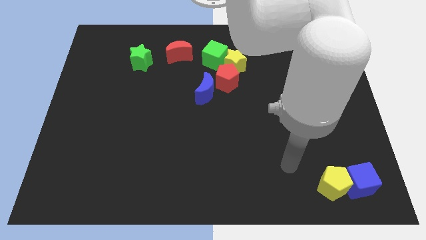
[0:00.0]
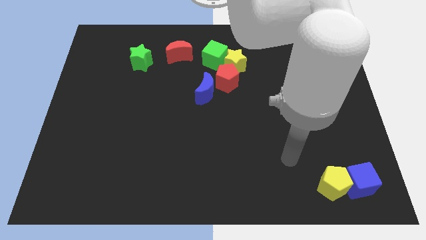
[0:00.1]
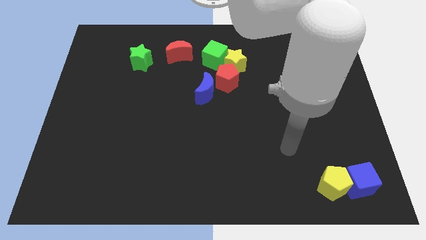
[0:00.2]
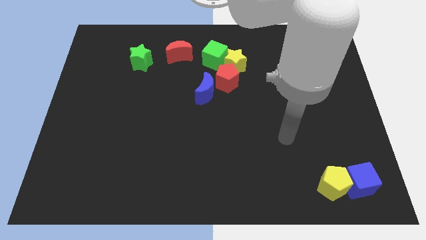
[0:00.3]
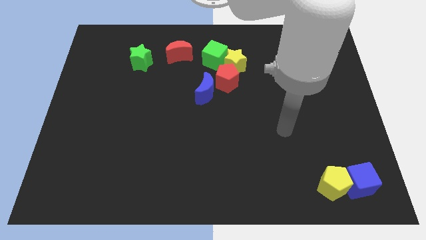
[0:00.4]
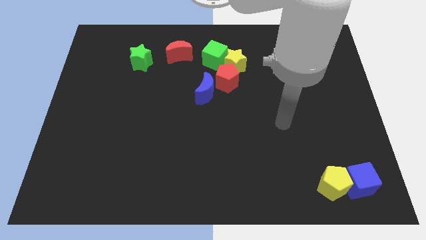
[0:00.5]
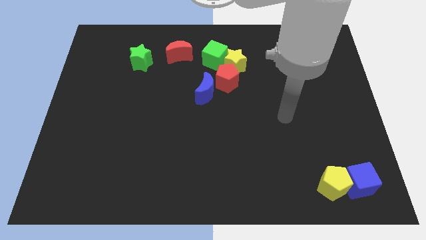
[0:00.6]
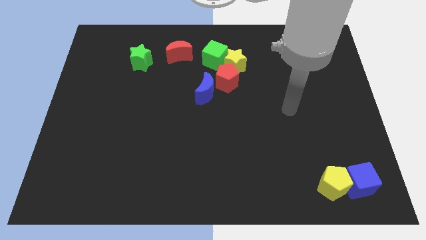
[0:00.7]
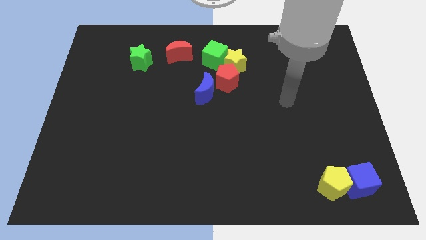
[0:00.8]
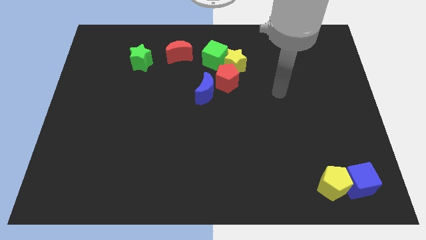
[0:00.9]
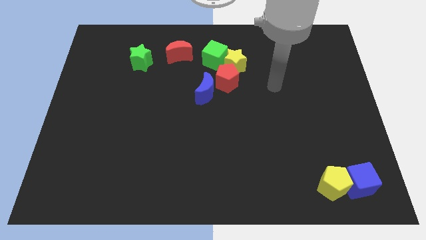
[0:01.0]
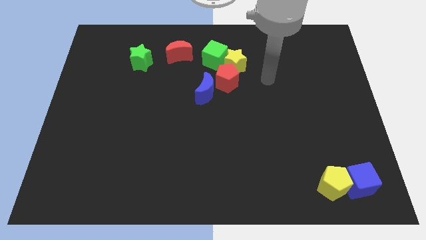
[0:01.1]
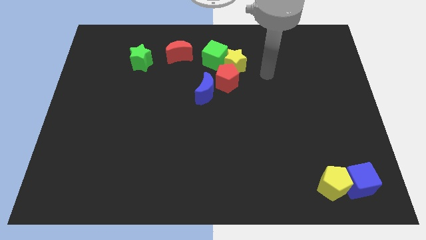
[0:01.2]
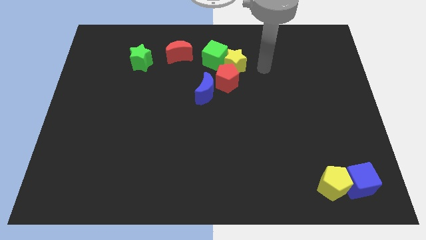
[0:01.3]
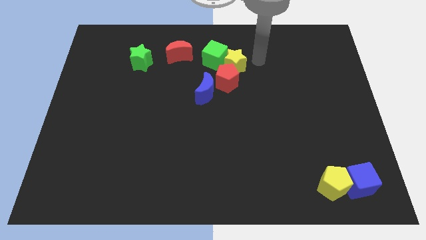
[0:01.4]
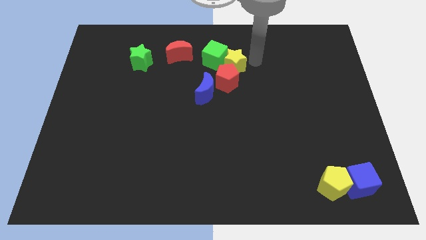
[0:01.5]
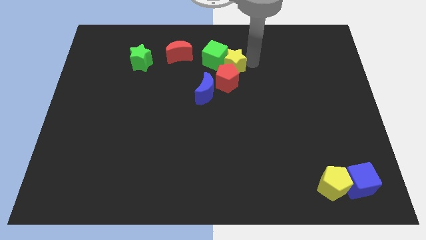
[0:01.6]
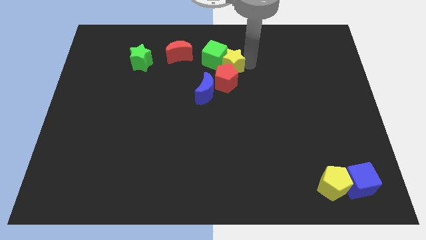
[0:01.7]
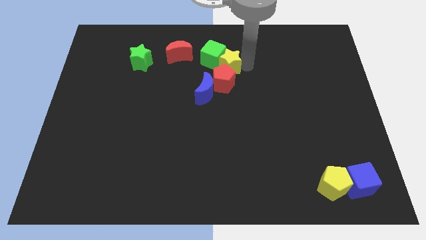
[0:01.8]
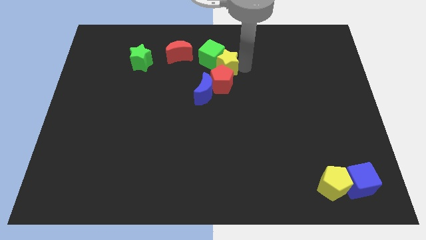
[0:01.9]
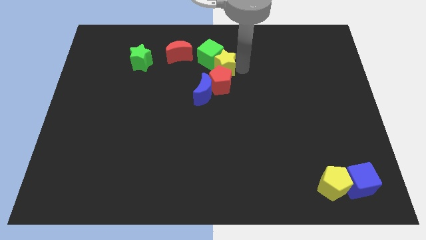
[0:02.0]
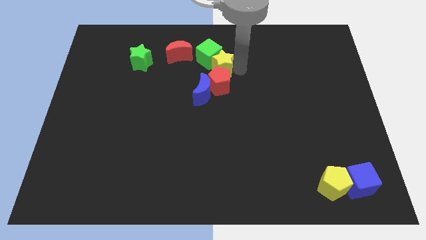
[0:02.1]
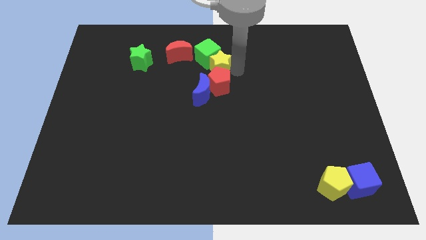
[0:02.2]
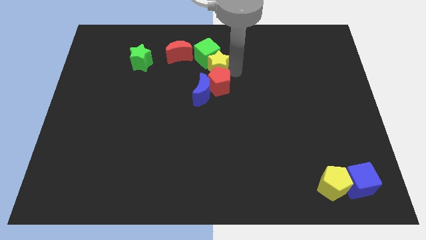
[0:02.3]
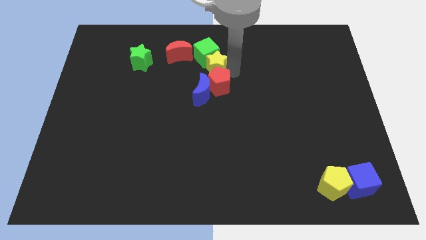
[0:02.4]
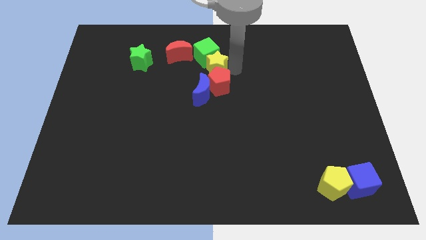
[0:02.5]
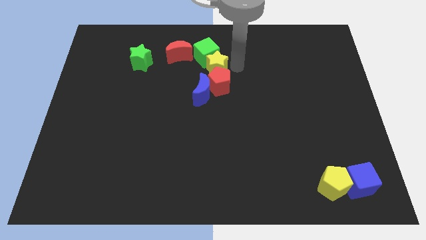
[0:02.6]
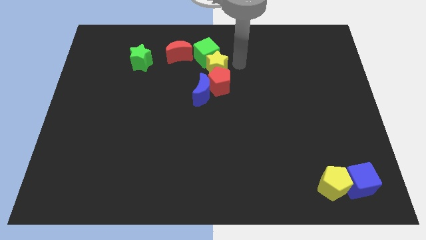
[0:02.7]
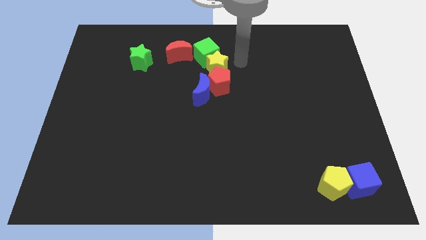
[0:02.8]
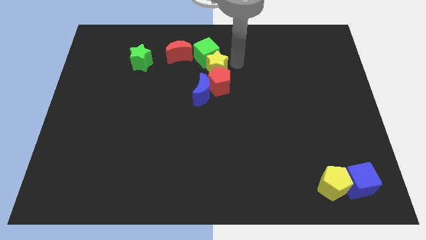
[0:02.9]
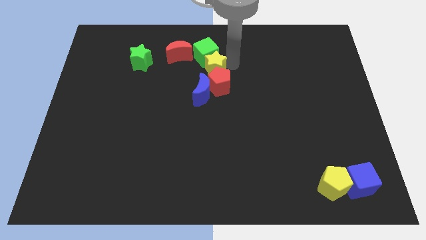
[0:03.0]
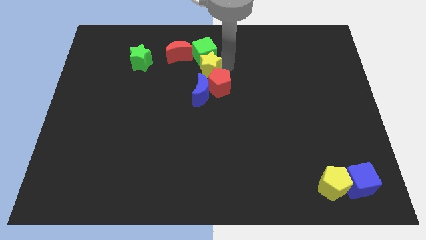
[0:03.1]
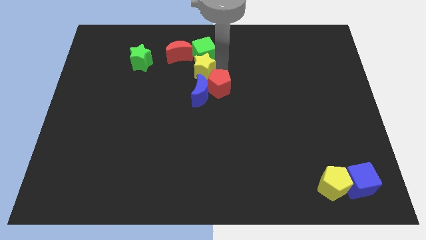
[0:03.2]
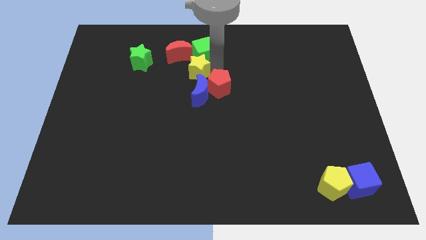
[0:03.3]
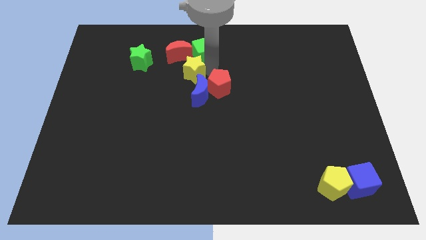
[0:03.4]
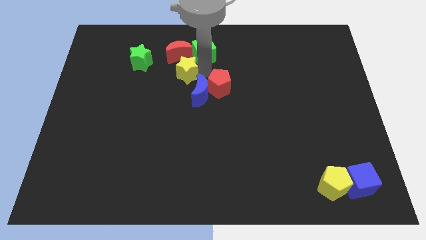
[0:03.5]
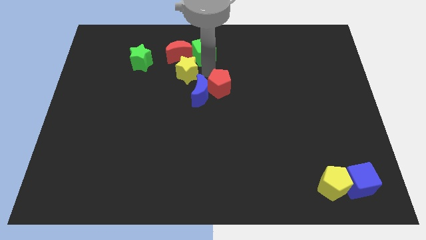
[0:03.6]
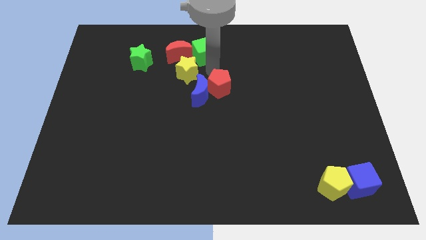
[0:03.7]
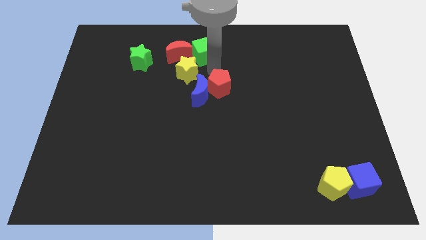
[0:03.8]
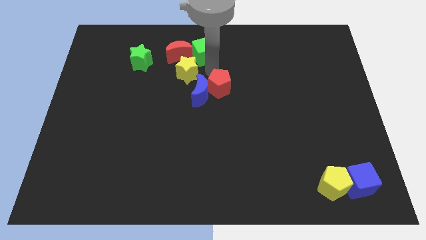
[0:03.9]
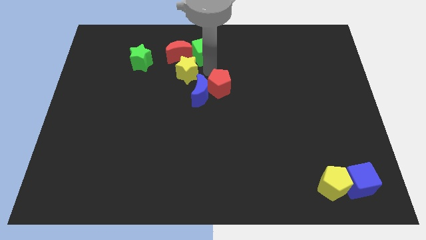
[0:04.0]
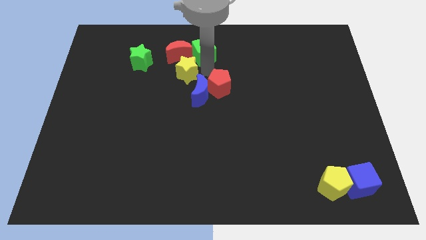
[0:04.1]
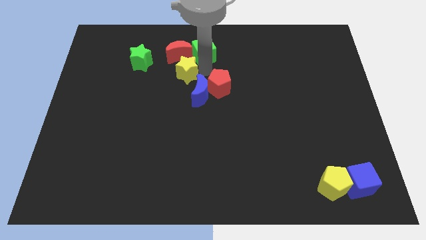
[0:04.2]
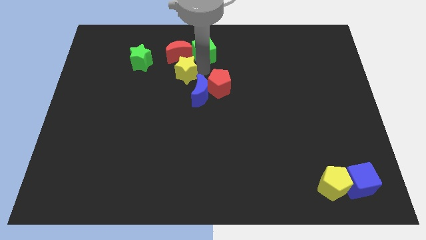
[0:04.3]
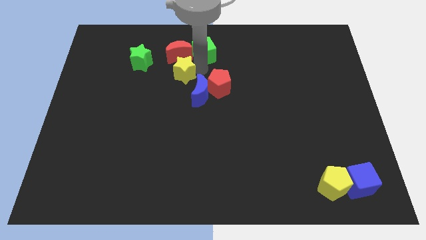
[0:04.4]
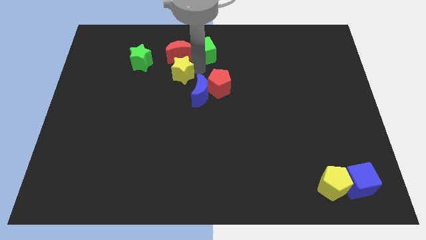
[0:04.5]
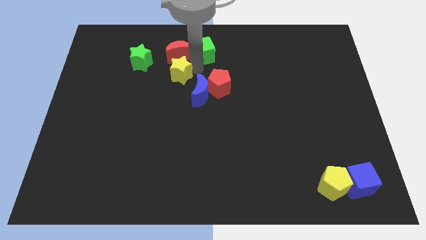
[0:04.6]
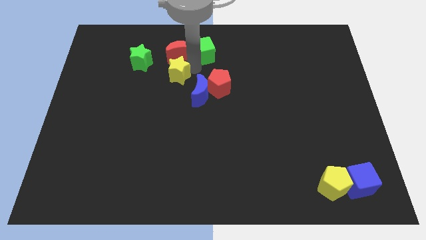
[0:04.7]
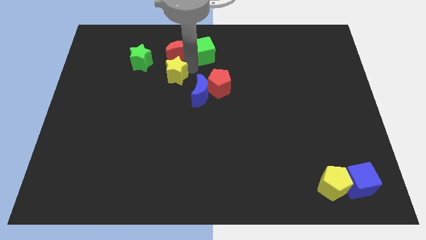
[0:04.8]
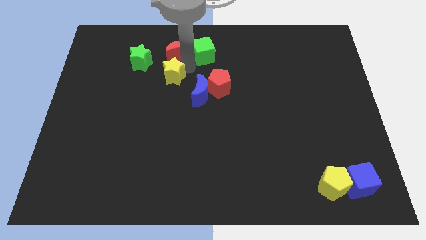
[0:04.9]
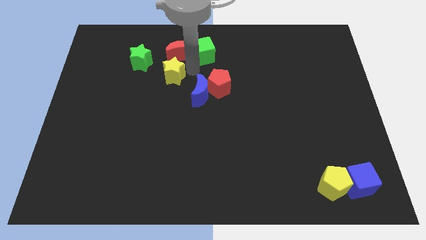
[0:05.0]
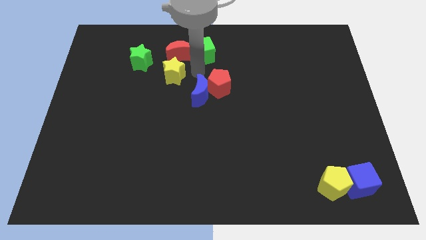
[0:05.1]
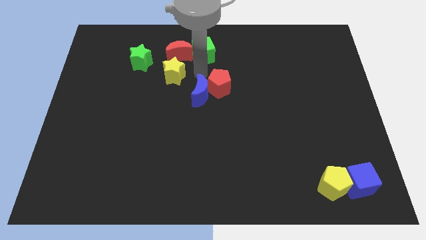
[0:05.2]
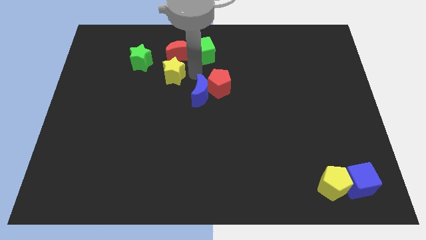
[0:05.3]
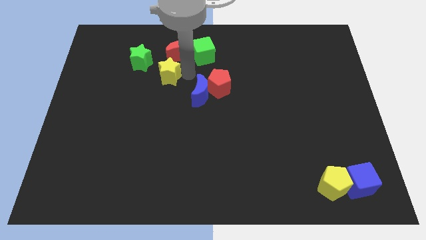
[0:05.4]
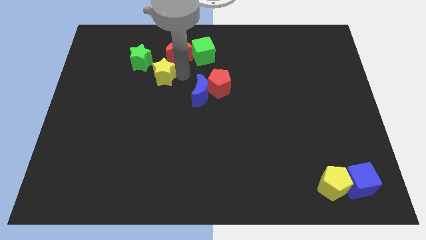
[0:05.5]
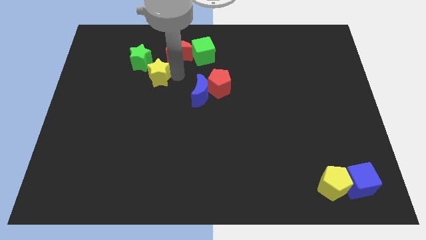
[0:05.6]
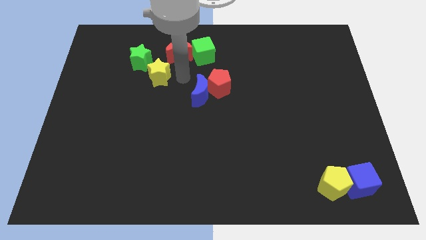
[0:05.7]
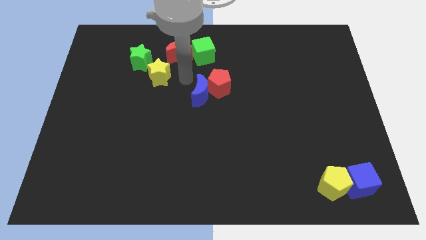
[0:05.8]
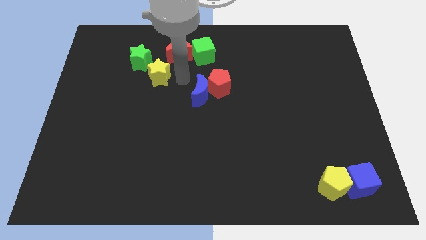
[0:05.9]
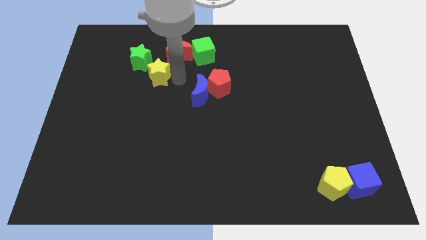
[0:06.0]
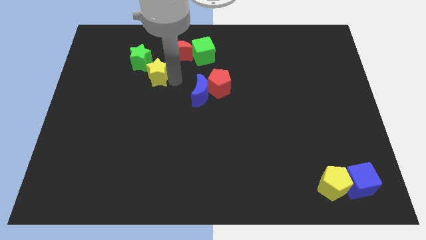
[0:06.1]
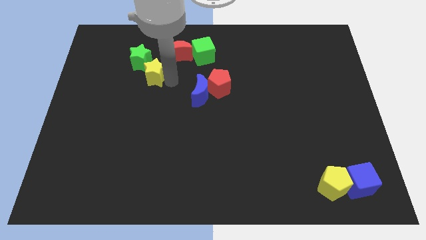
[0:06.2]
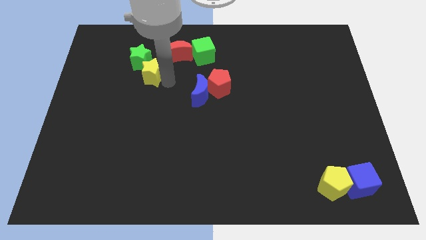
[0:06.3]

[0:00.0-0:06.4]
move the yellow star left

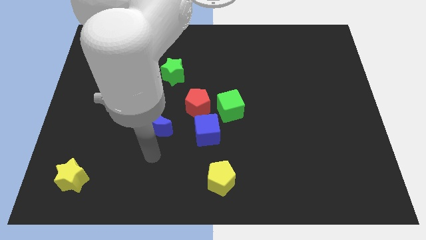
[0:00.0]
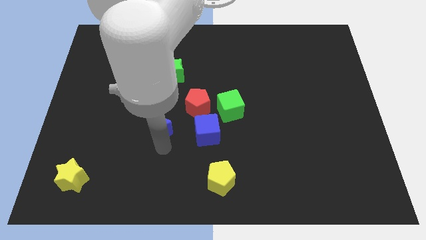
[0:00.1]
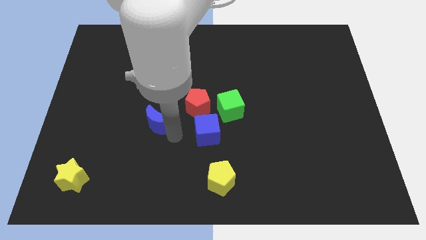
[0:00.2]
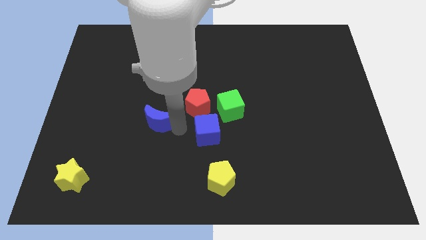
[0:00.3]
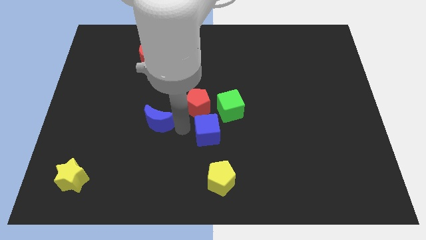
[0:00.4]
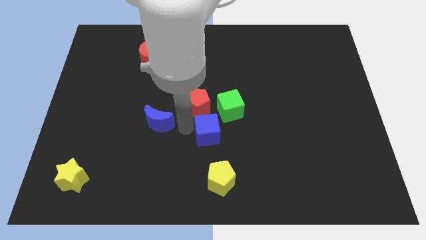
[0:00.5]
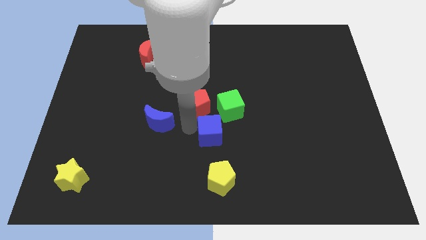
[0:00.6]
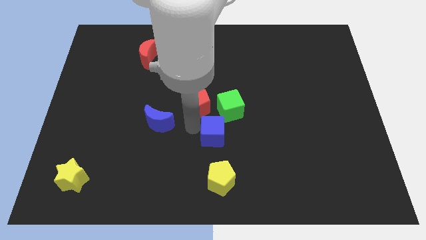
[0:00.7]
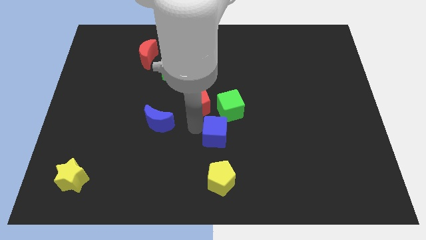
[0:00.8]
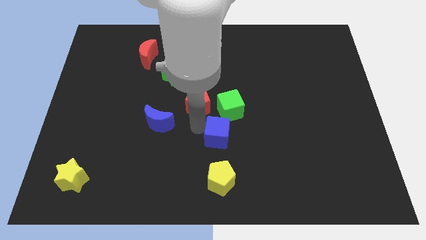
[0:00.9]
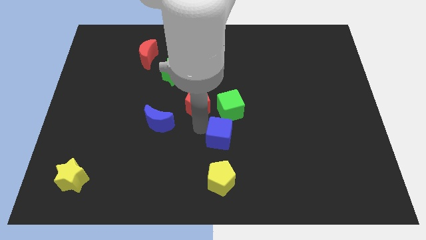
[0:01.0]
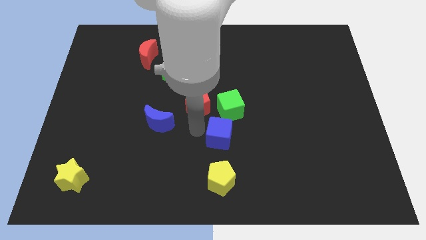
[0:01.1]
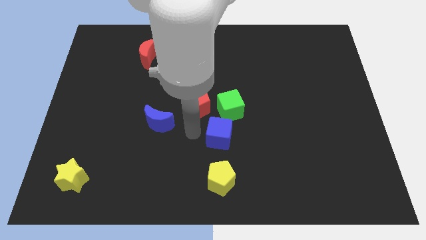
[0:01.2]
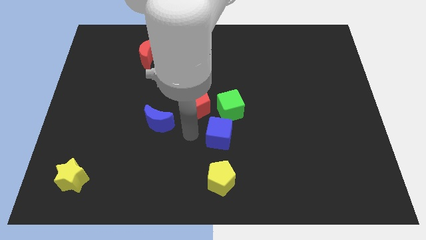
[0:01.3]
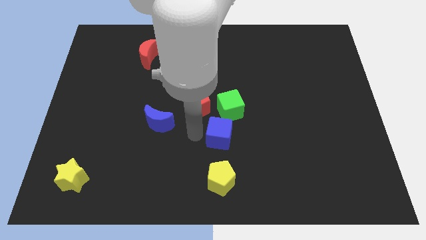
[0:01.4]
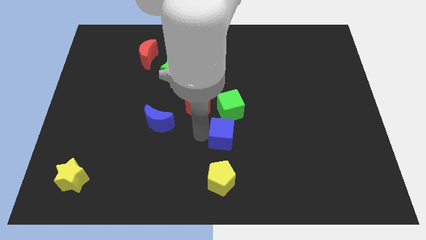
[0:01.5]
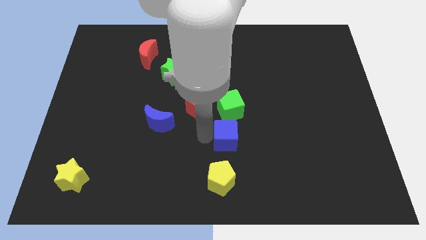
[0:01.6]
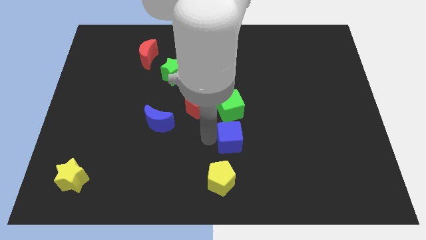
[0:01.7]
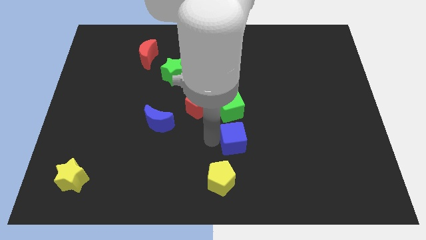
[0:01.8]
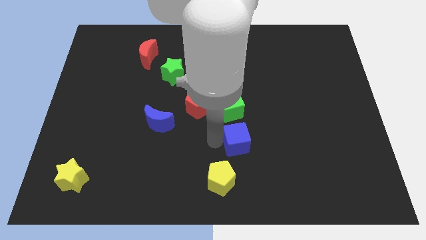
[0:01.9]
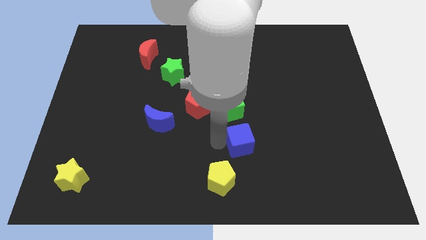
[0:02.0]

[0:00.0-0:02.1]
slightly move the blue cube right
